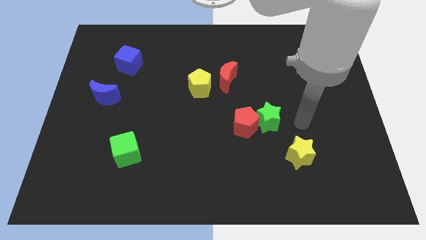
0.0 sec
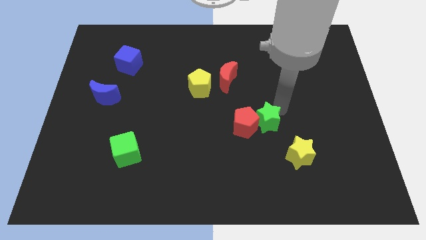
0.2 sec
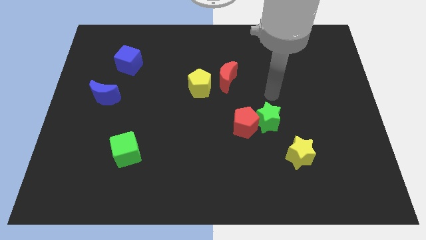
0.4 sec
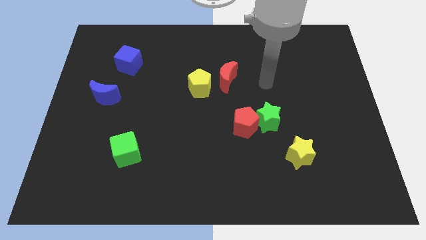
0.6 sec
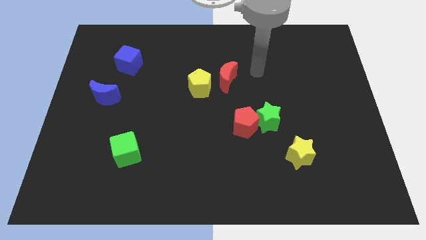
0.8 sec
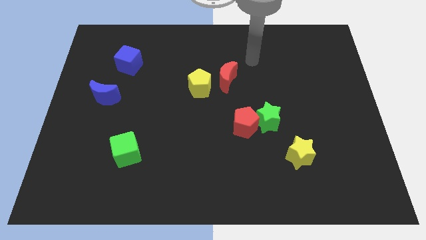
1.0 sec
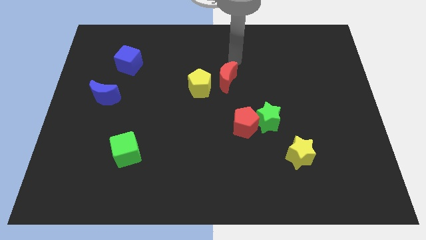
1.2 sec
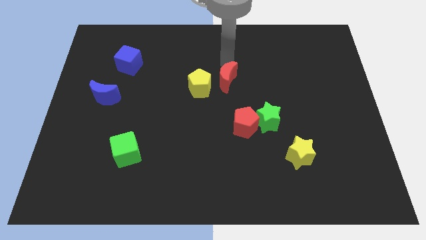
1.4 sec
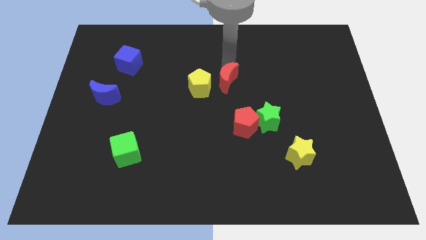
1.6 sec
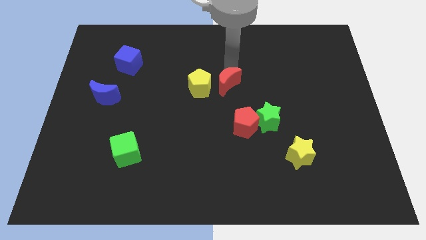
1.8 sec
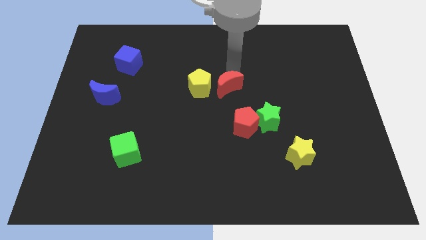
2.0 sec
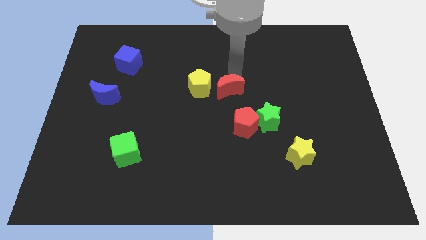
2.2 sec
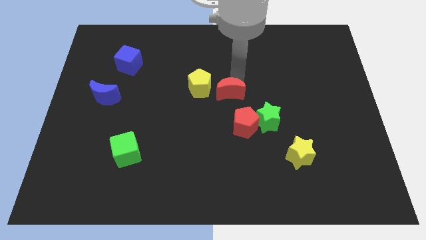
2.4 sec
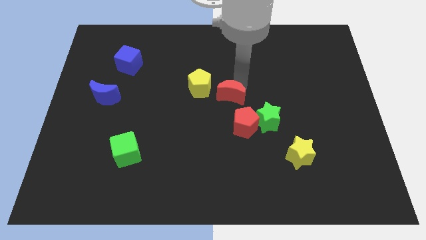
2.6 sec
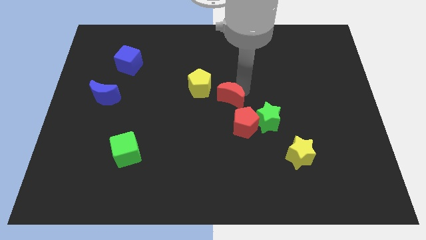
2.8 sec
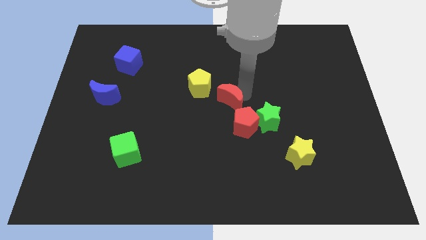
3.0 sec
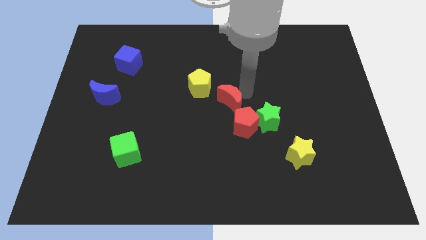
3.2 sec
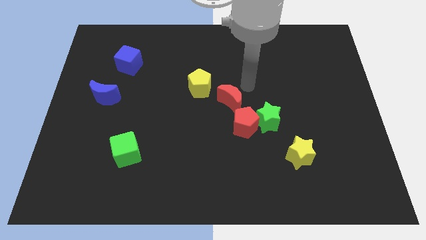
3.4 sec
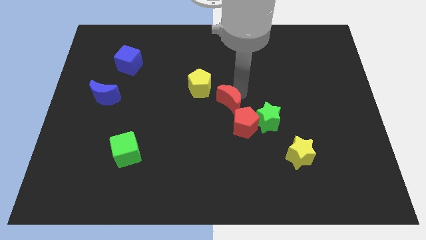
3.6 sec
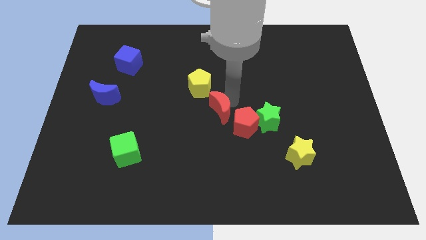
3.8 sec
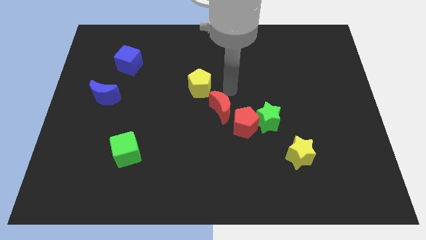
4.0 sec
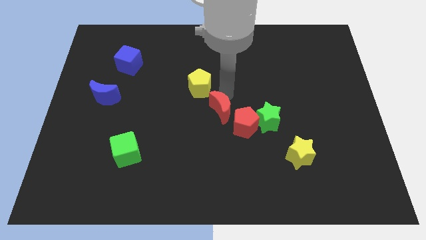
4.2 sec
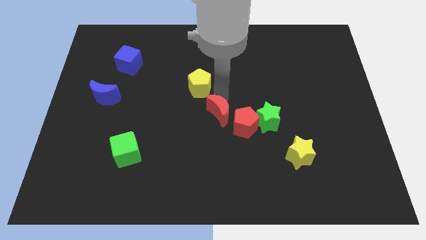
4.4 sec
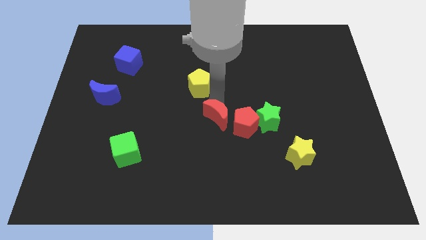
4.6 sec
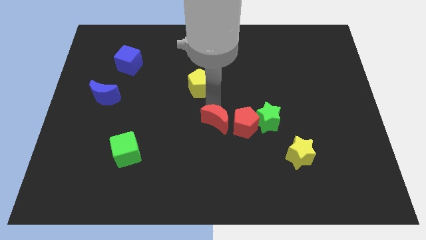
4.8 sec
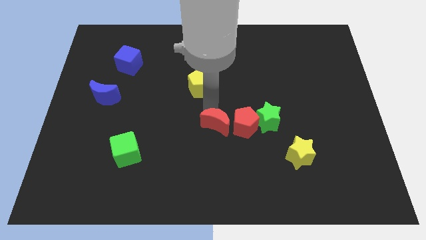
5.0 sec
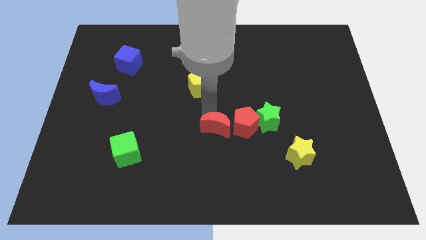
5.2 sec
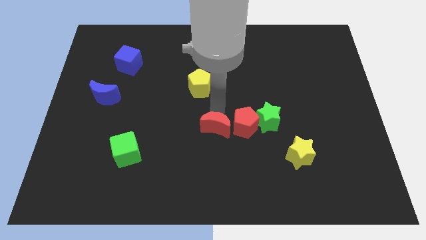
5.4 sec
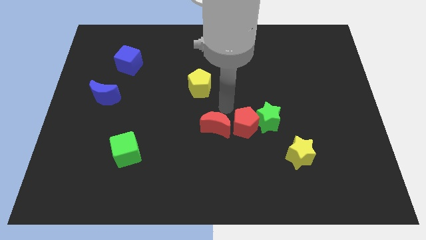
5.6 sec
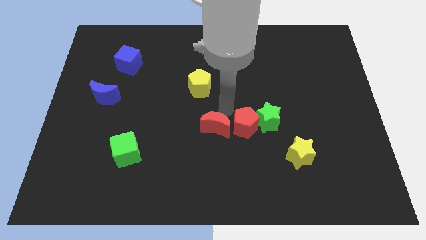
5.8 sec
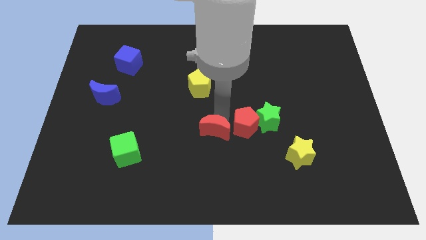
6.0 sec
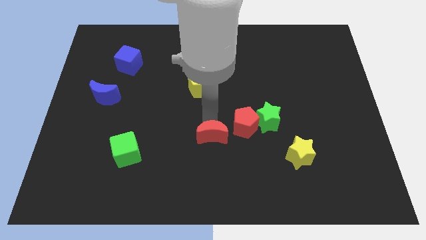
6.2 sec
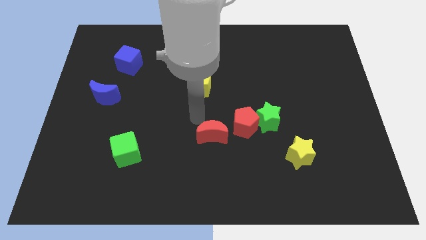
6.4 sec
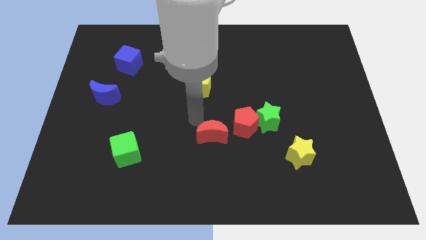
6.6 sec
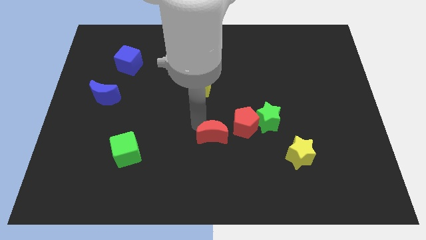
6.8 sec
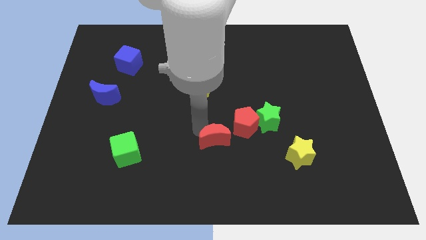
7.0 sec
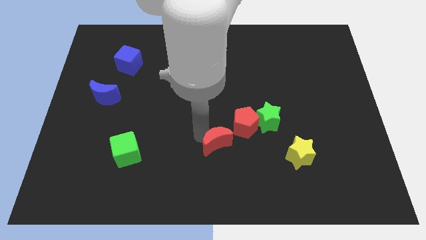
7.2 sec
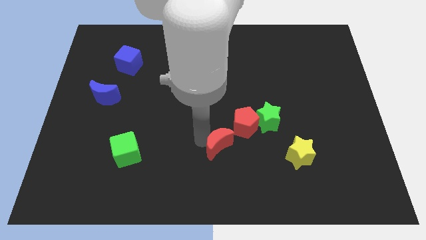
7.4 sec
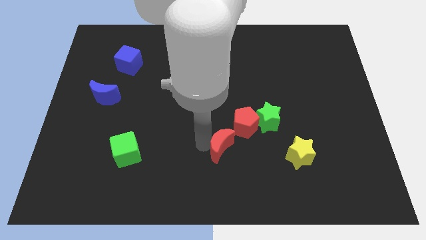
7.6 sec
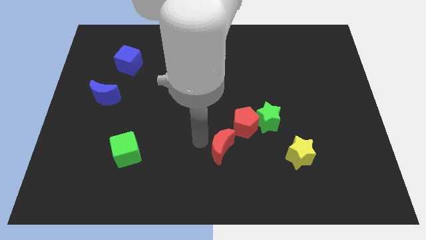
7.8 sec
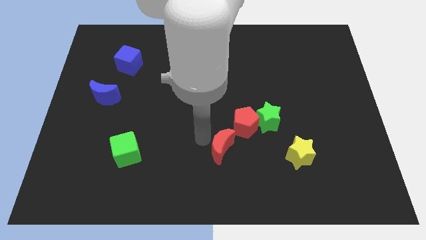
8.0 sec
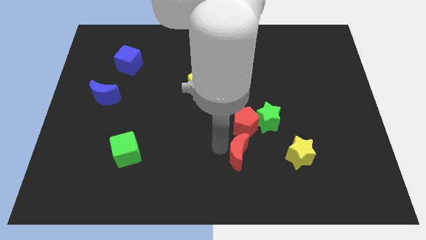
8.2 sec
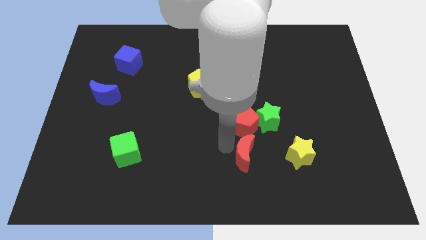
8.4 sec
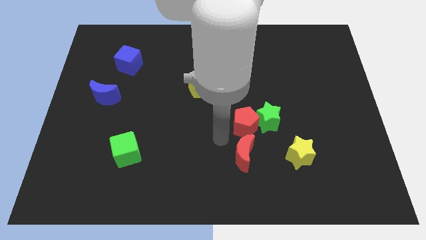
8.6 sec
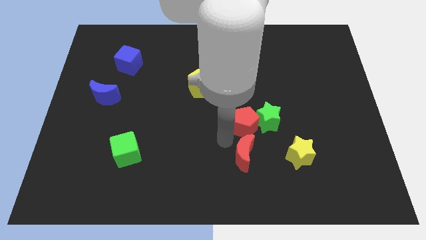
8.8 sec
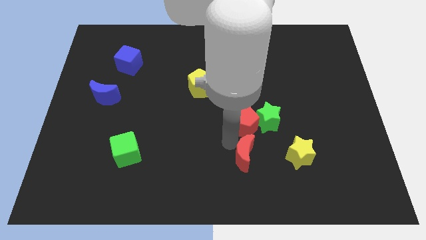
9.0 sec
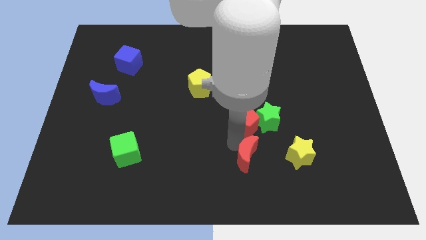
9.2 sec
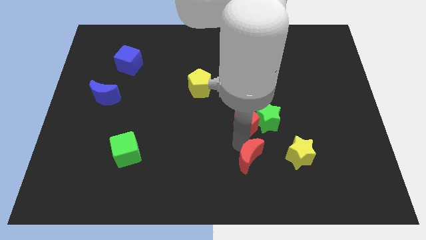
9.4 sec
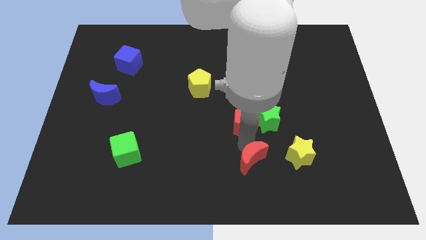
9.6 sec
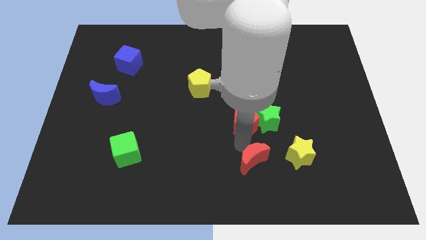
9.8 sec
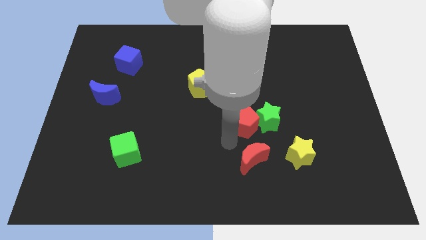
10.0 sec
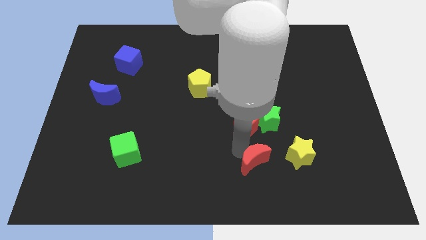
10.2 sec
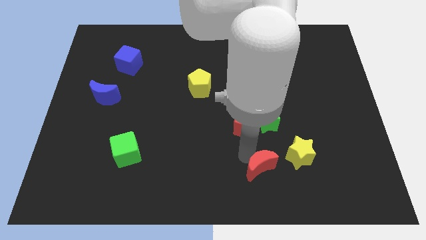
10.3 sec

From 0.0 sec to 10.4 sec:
move the red moon to the bottom left of the yellow star

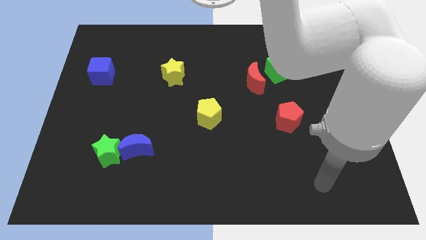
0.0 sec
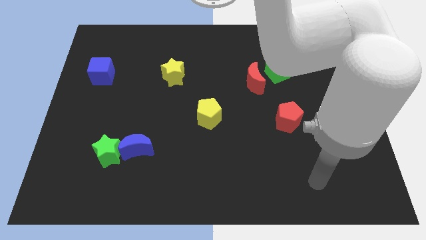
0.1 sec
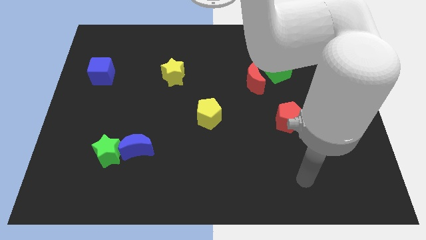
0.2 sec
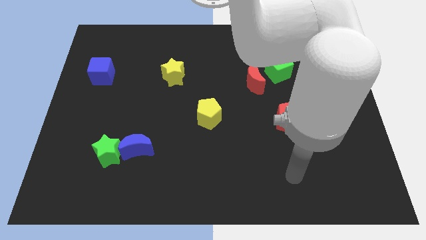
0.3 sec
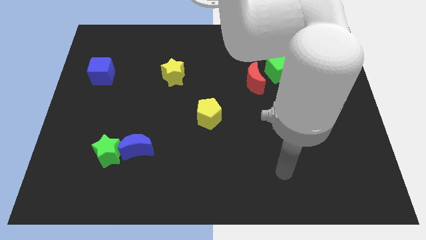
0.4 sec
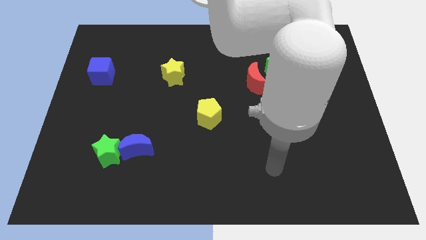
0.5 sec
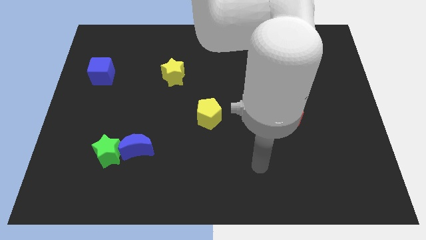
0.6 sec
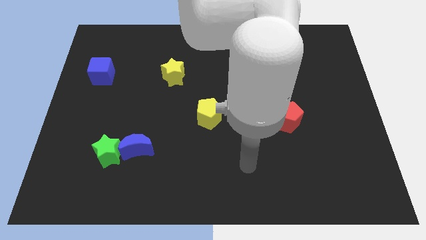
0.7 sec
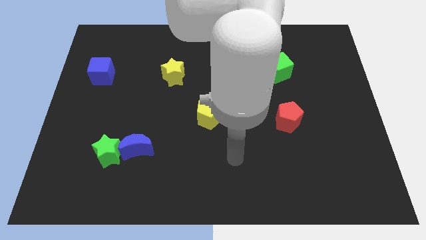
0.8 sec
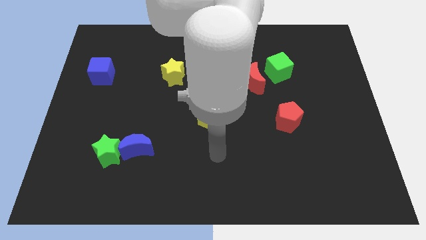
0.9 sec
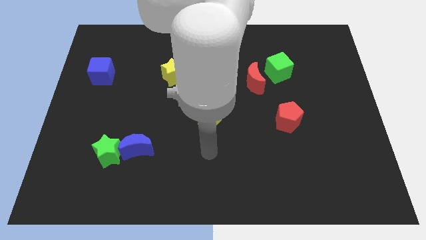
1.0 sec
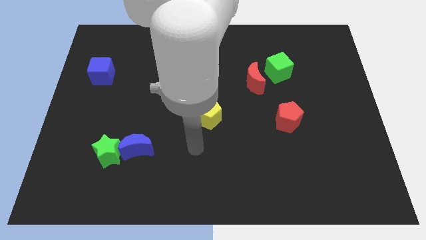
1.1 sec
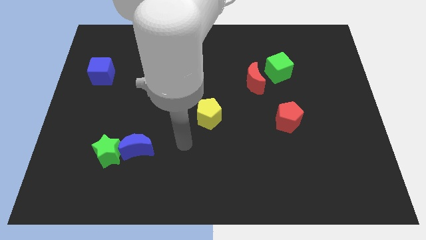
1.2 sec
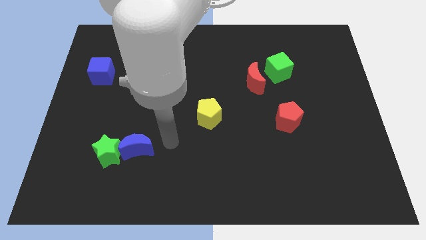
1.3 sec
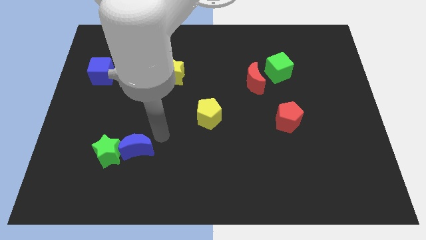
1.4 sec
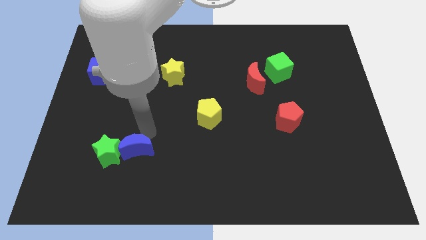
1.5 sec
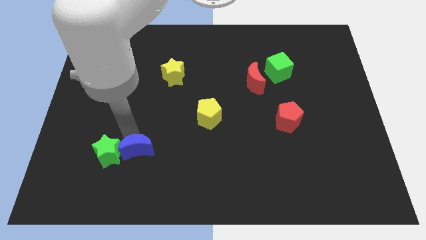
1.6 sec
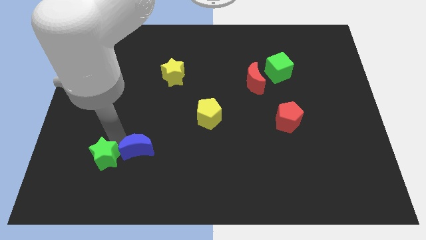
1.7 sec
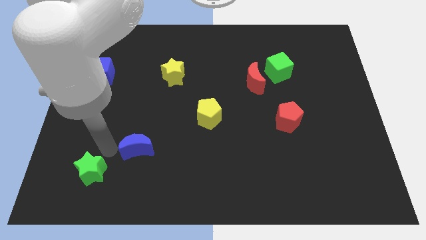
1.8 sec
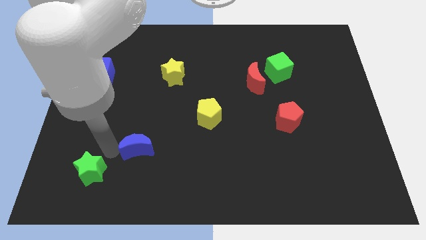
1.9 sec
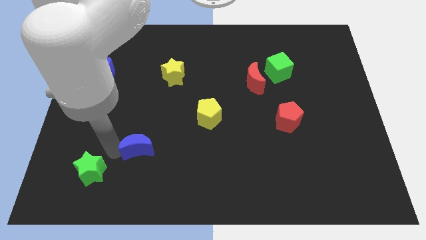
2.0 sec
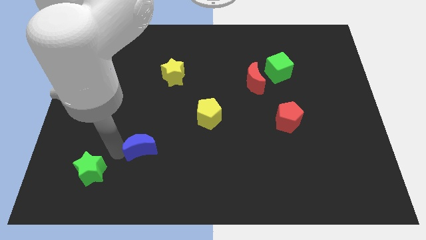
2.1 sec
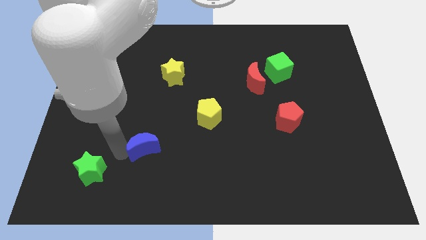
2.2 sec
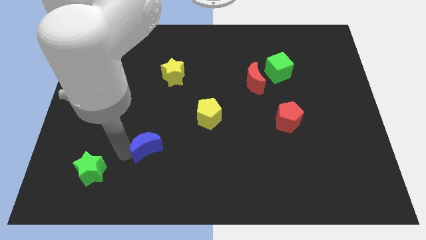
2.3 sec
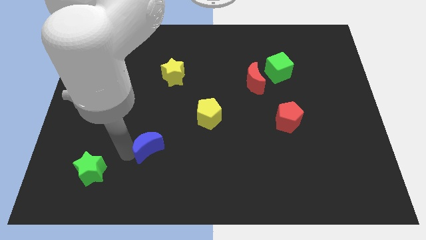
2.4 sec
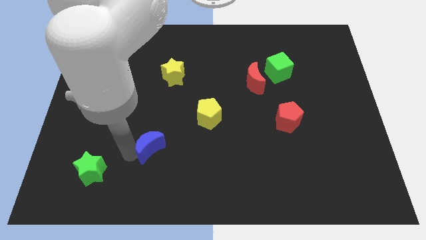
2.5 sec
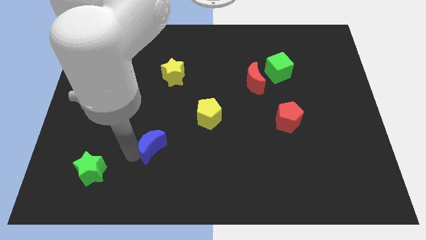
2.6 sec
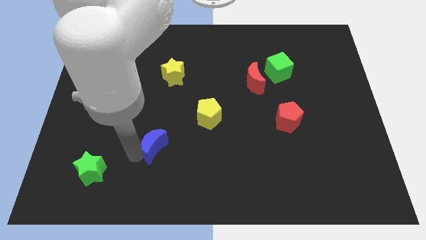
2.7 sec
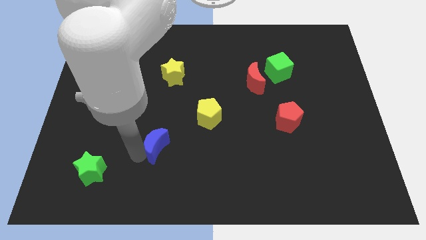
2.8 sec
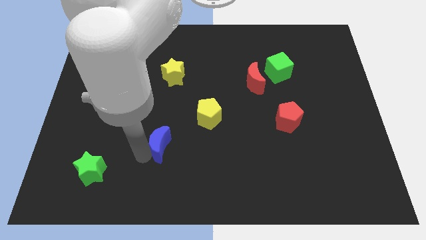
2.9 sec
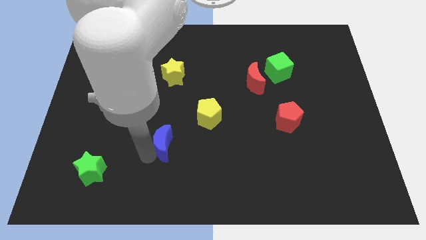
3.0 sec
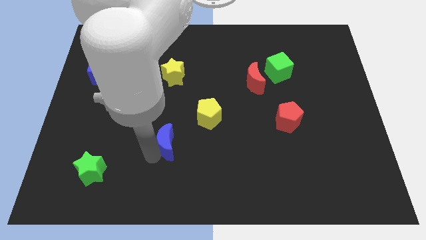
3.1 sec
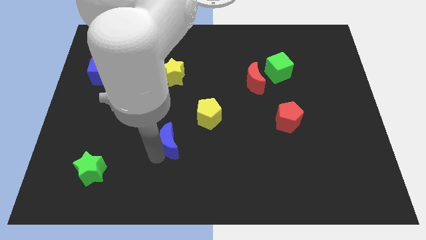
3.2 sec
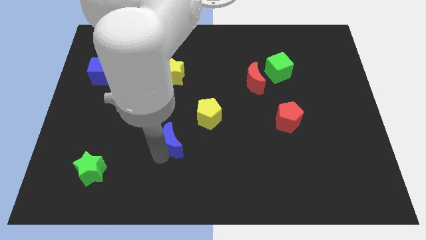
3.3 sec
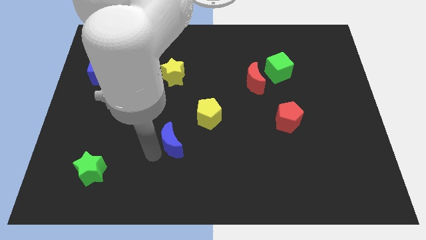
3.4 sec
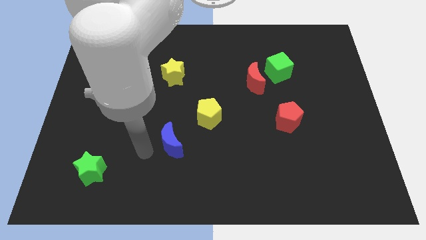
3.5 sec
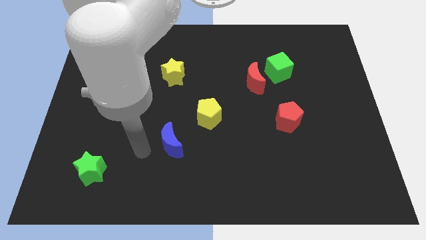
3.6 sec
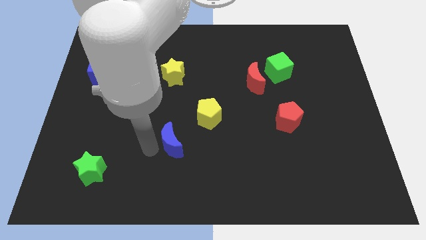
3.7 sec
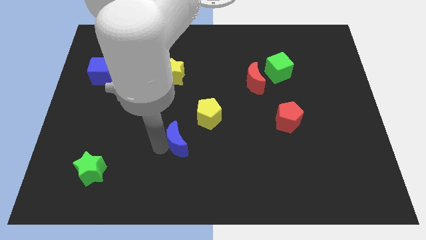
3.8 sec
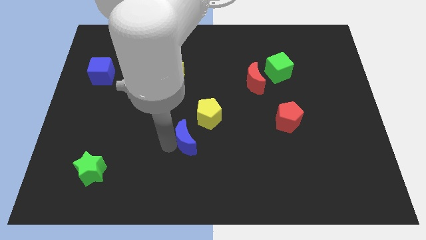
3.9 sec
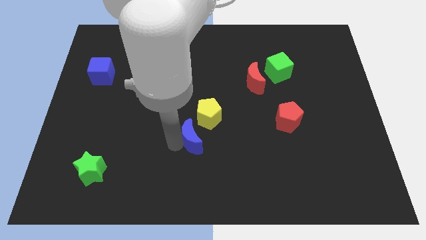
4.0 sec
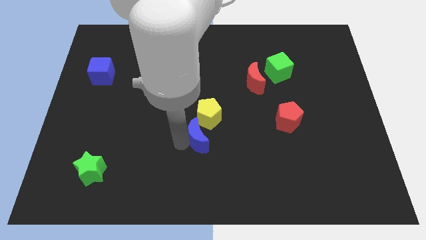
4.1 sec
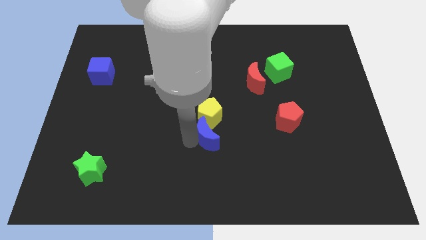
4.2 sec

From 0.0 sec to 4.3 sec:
put the blue moon diagonally down and to the right of the yellow pentagon
